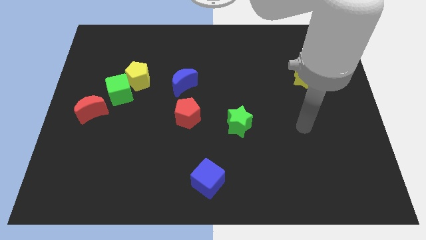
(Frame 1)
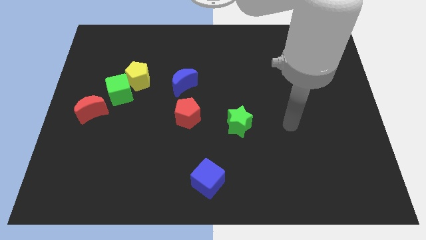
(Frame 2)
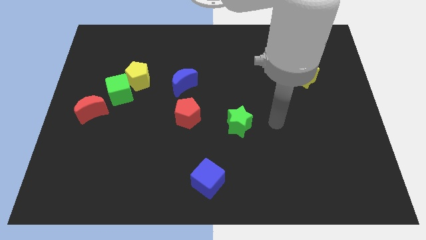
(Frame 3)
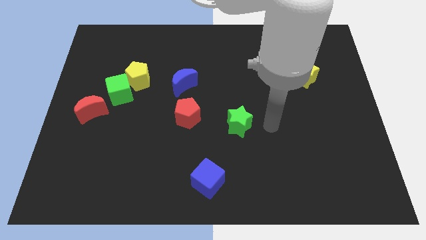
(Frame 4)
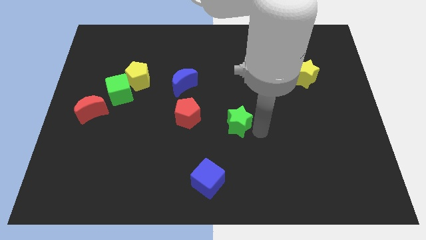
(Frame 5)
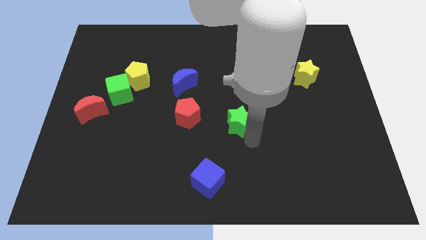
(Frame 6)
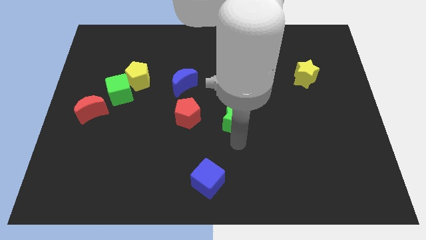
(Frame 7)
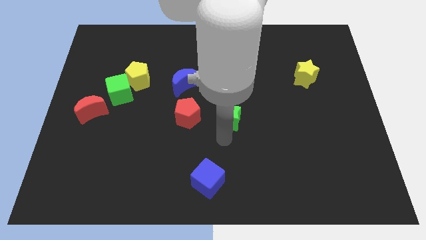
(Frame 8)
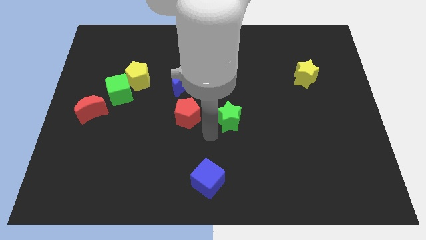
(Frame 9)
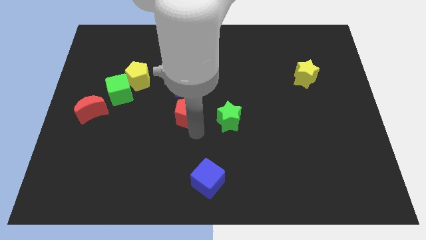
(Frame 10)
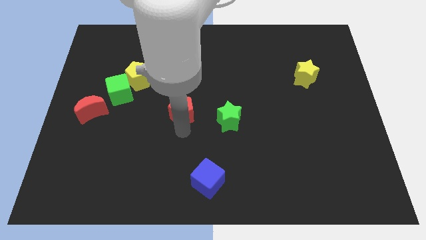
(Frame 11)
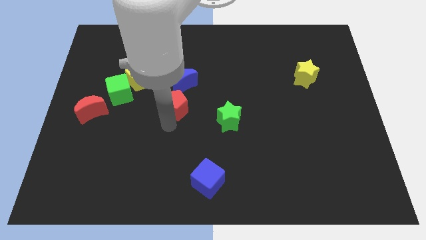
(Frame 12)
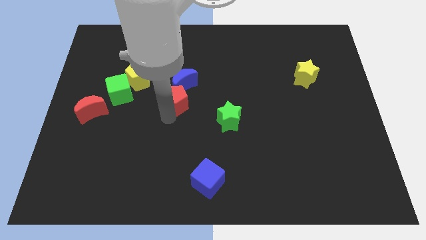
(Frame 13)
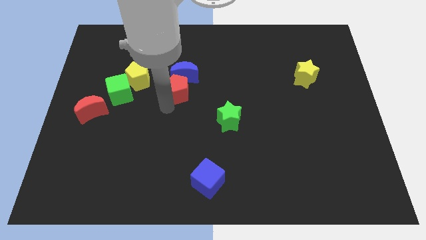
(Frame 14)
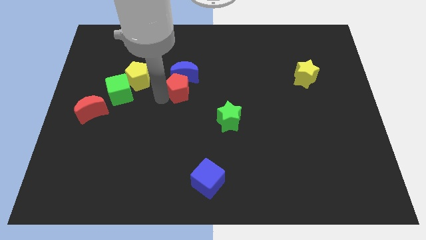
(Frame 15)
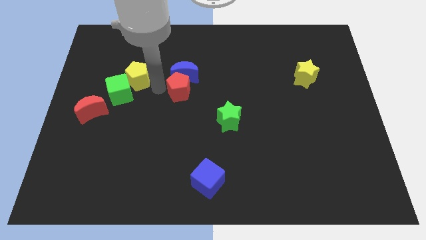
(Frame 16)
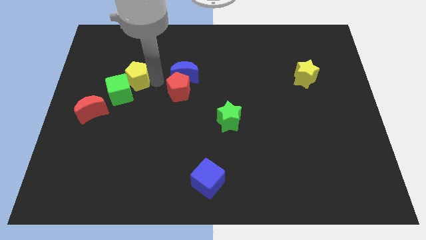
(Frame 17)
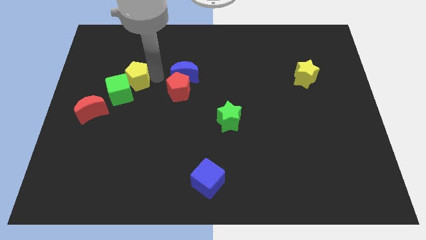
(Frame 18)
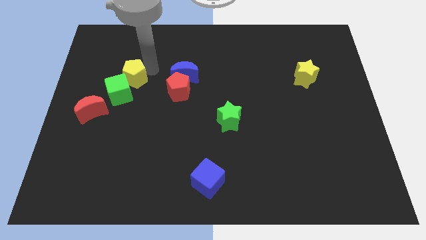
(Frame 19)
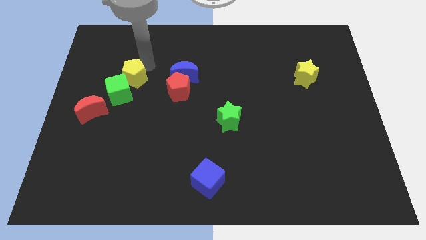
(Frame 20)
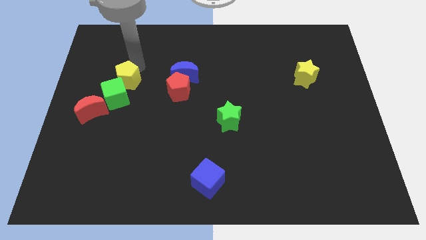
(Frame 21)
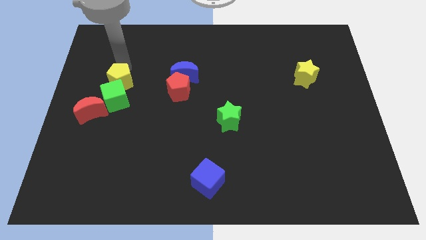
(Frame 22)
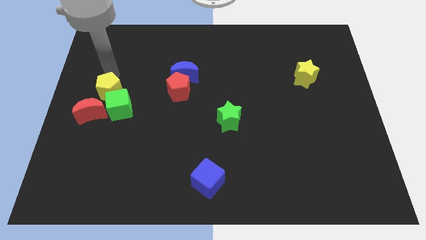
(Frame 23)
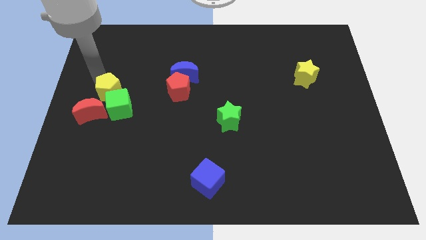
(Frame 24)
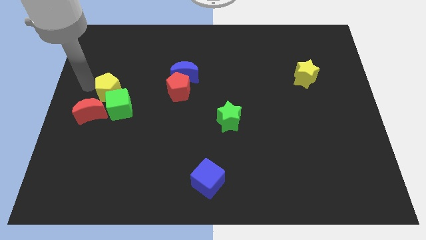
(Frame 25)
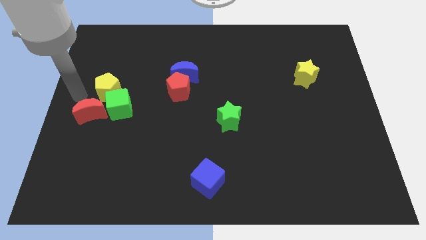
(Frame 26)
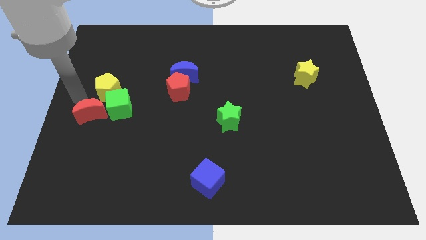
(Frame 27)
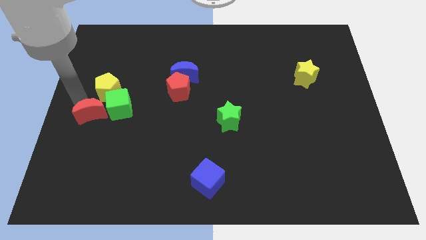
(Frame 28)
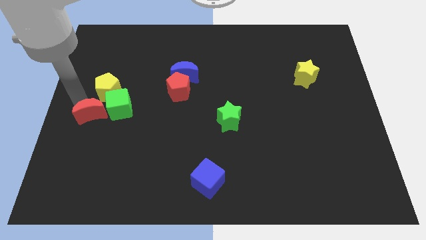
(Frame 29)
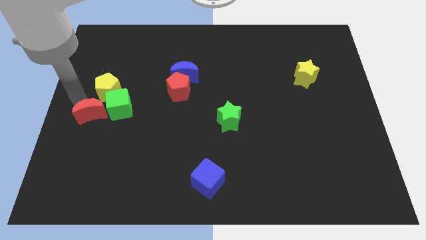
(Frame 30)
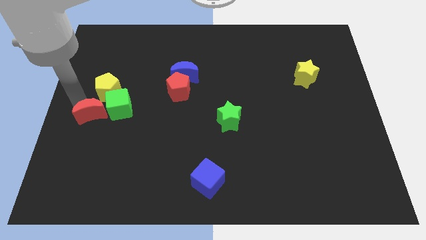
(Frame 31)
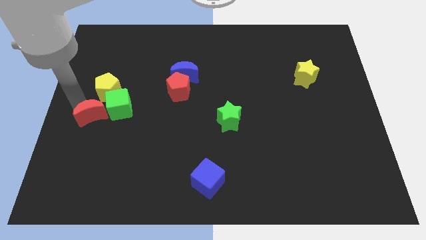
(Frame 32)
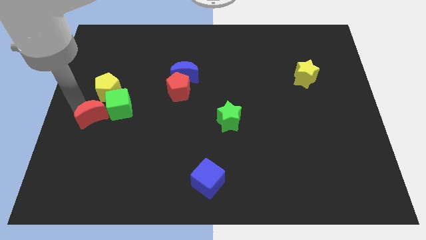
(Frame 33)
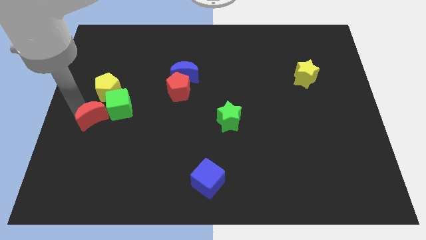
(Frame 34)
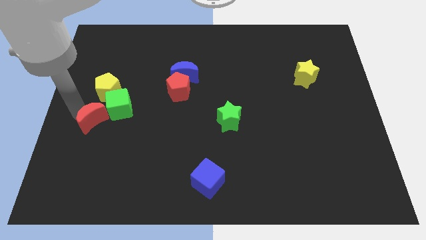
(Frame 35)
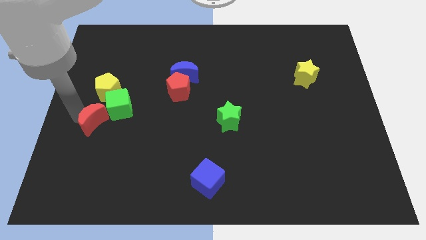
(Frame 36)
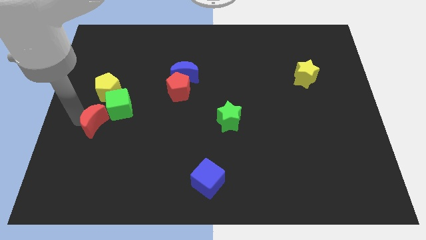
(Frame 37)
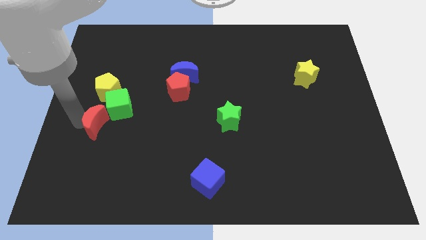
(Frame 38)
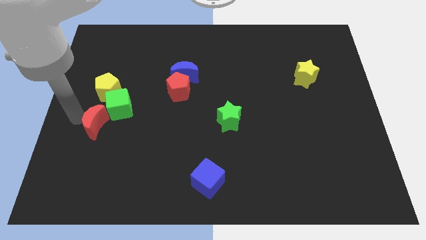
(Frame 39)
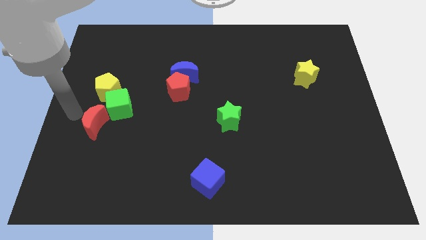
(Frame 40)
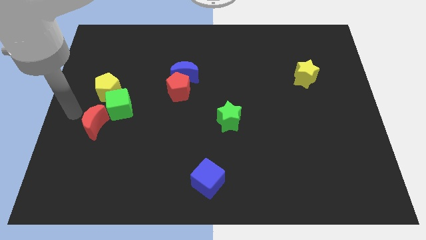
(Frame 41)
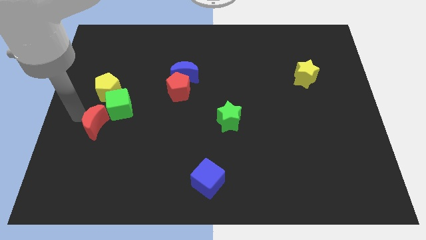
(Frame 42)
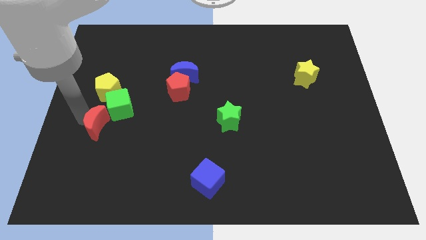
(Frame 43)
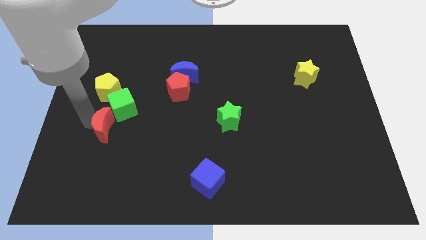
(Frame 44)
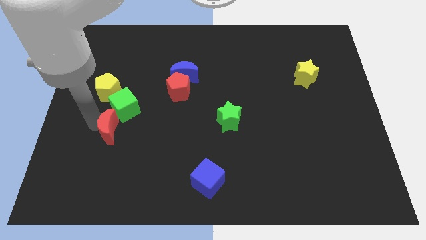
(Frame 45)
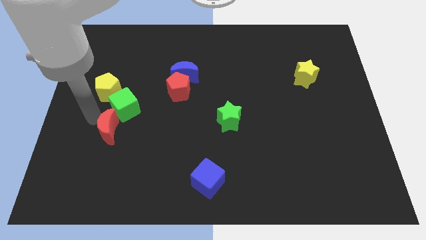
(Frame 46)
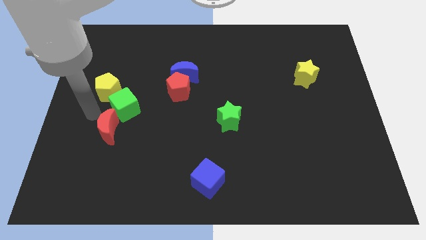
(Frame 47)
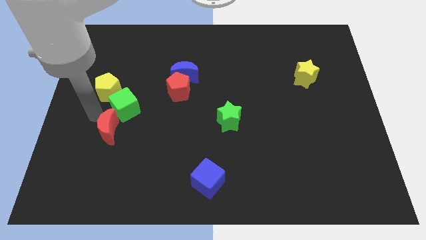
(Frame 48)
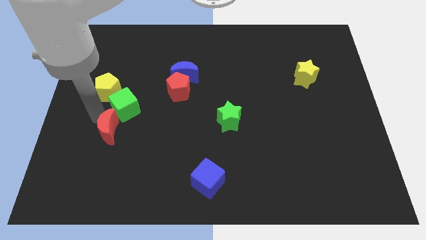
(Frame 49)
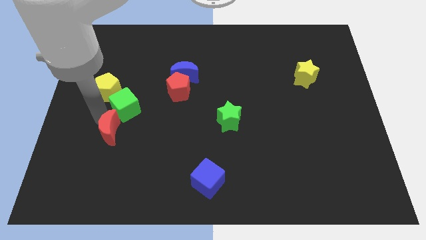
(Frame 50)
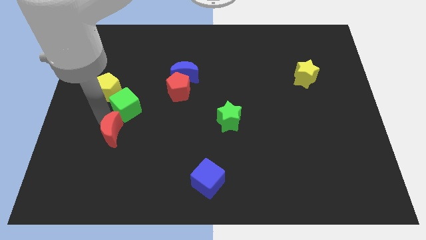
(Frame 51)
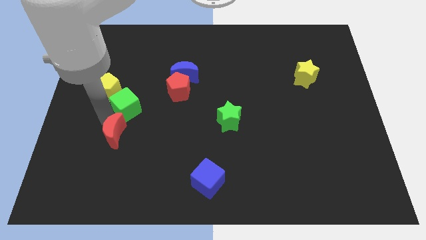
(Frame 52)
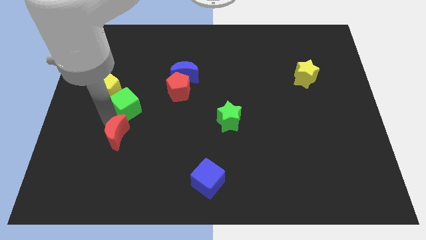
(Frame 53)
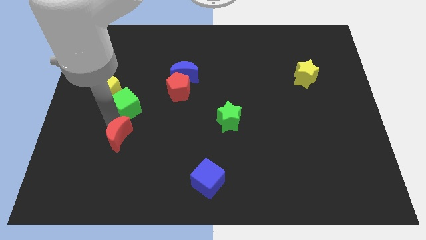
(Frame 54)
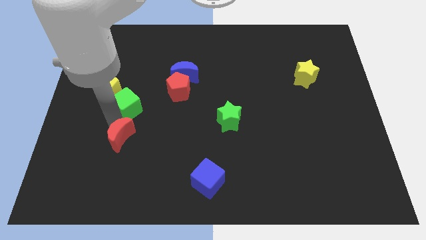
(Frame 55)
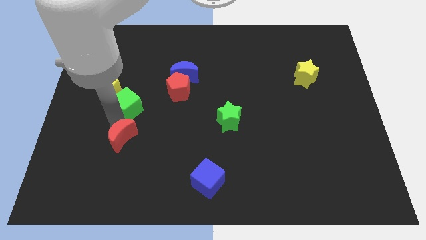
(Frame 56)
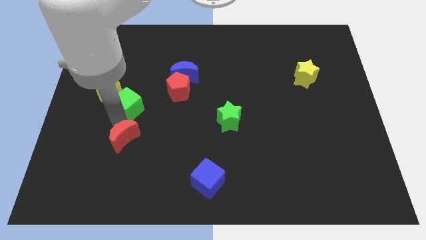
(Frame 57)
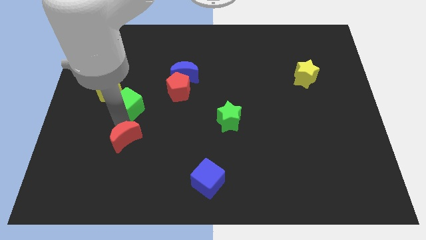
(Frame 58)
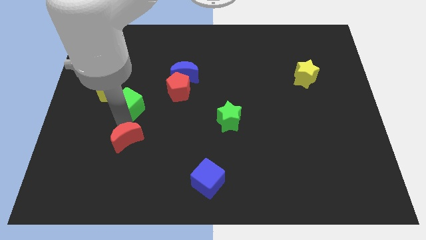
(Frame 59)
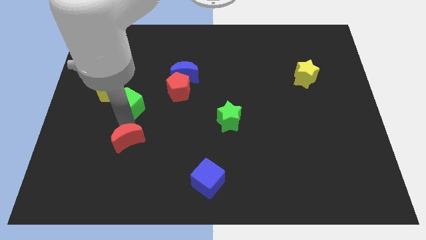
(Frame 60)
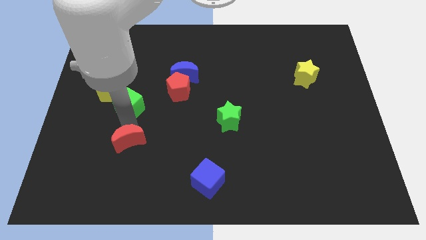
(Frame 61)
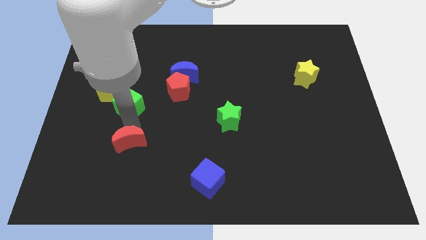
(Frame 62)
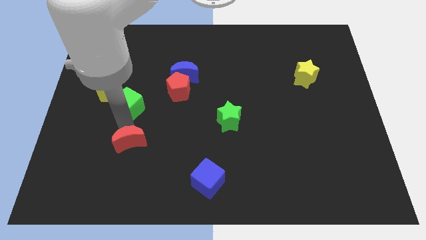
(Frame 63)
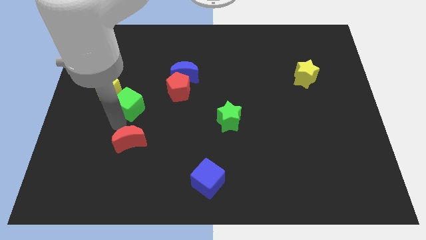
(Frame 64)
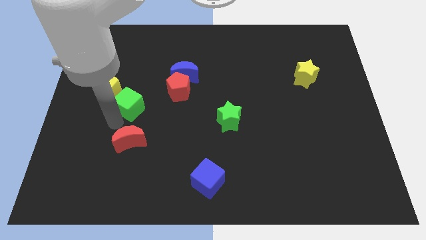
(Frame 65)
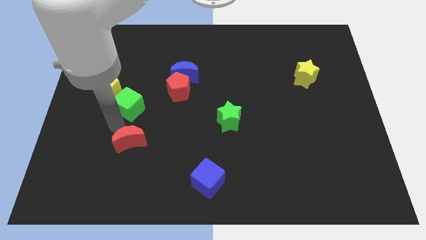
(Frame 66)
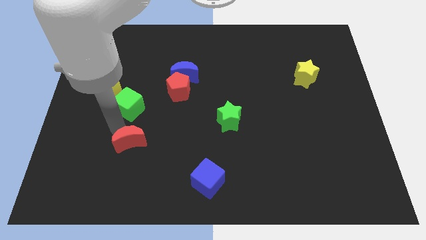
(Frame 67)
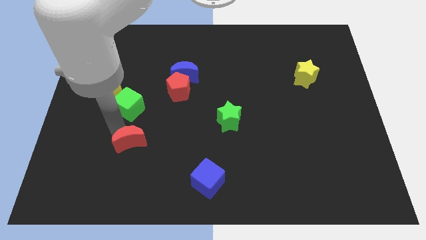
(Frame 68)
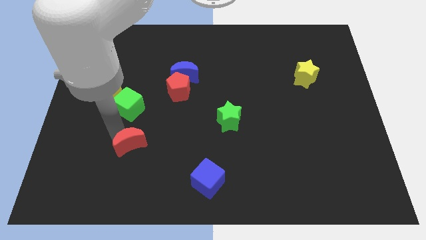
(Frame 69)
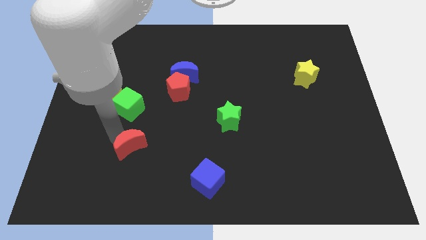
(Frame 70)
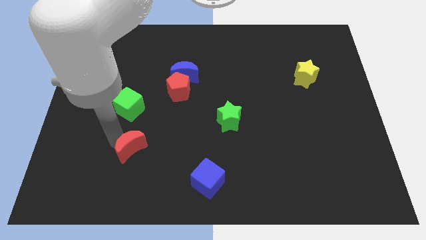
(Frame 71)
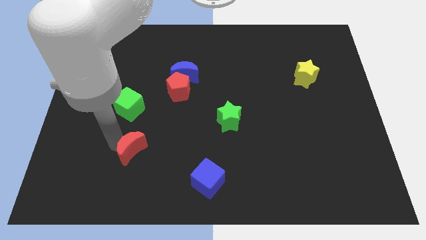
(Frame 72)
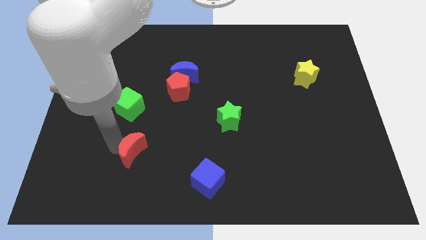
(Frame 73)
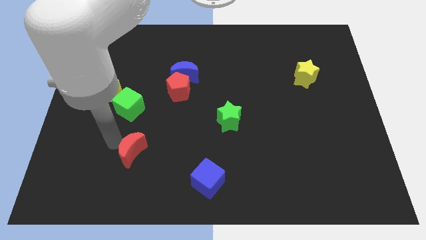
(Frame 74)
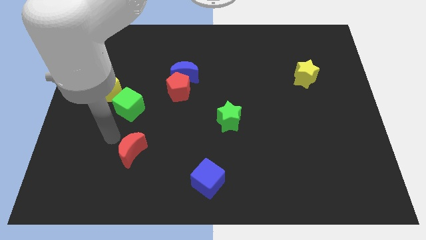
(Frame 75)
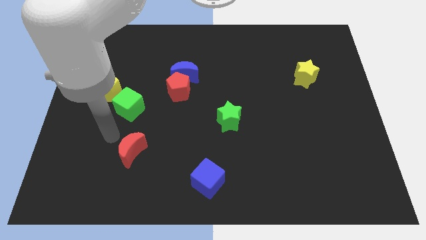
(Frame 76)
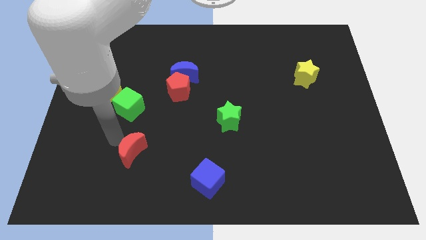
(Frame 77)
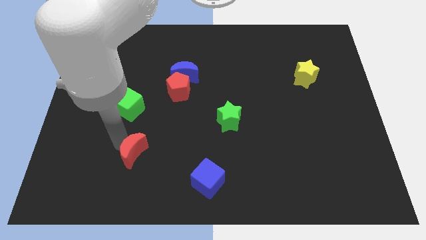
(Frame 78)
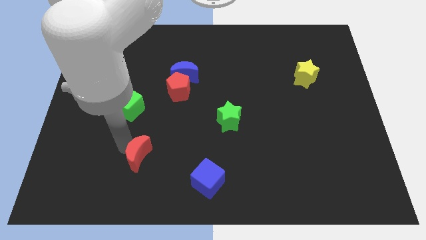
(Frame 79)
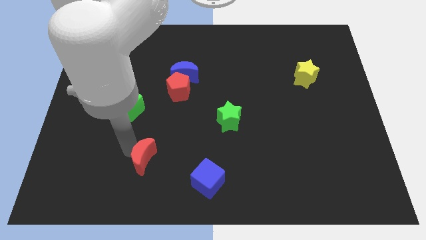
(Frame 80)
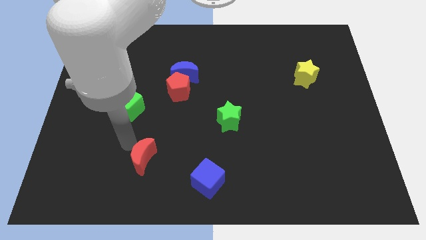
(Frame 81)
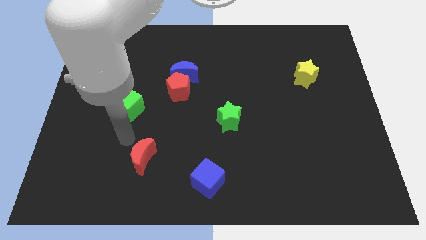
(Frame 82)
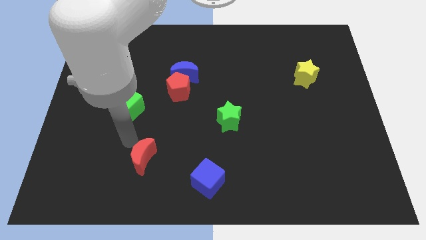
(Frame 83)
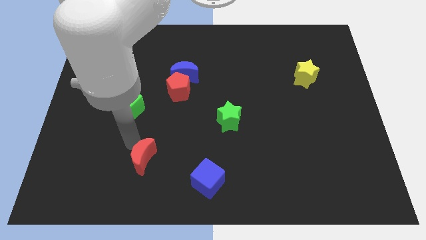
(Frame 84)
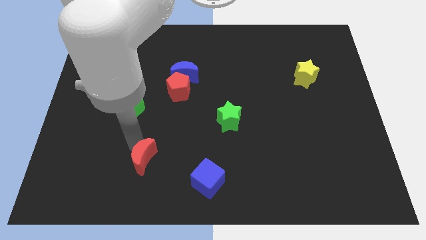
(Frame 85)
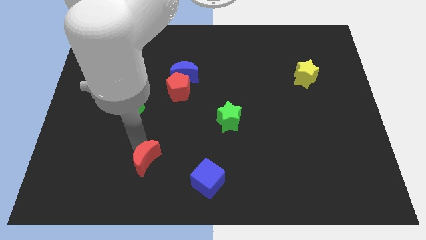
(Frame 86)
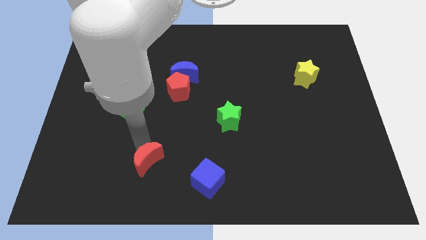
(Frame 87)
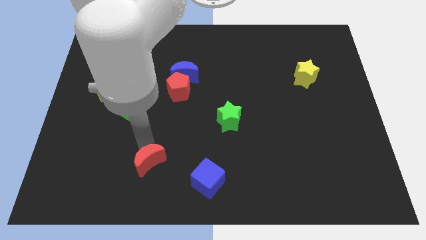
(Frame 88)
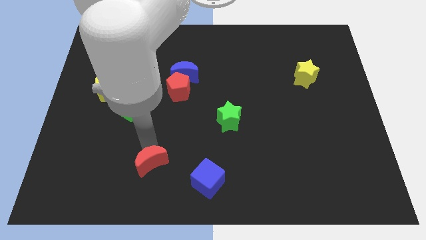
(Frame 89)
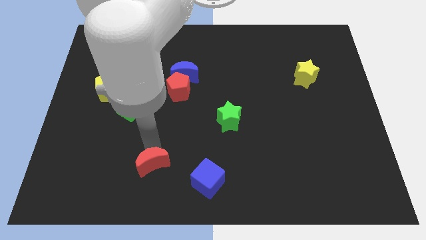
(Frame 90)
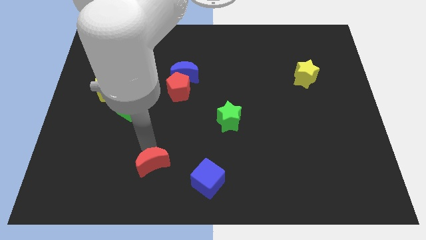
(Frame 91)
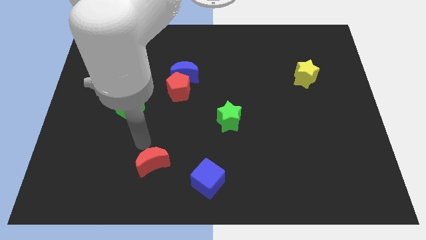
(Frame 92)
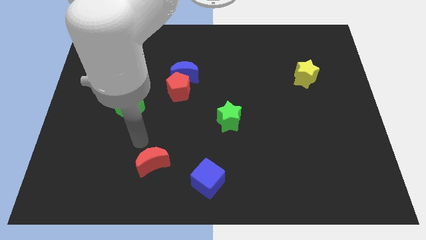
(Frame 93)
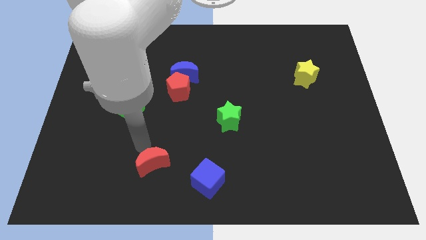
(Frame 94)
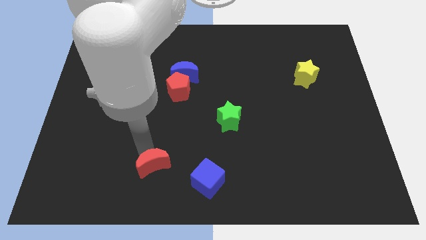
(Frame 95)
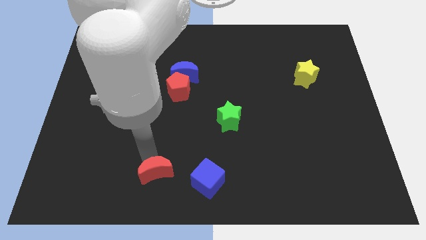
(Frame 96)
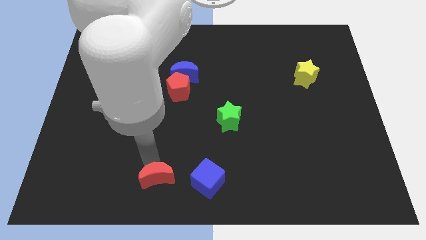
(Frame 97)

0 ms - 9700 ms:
push the red moon to the bottom side
